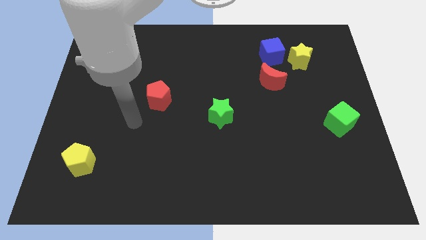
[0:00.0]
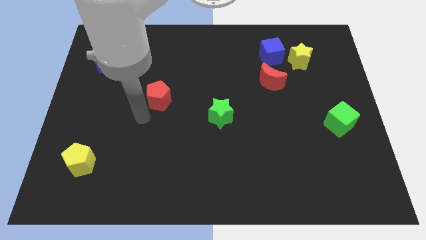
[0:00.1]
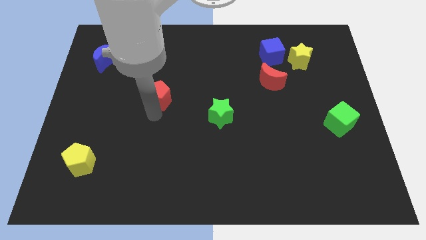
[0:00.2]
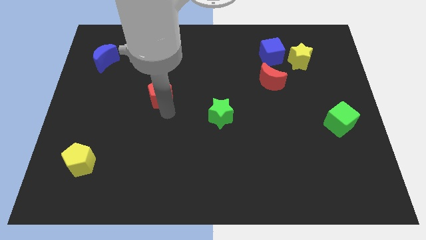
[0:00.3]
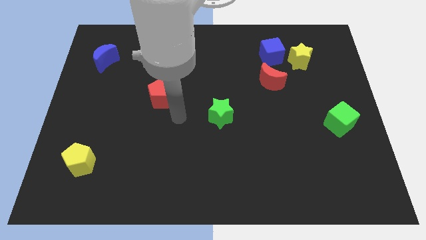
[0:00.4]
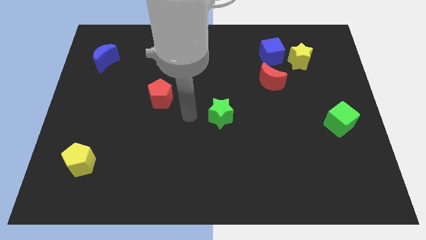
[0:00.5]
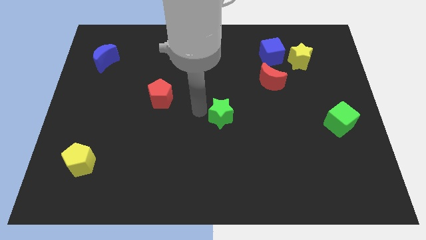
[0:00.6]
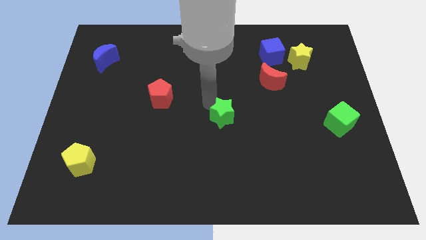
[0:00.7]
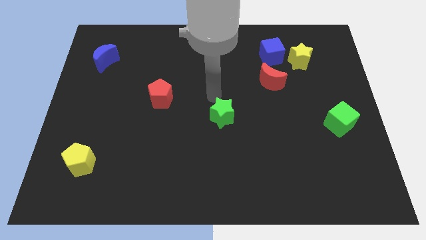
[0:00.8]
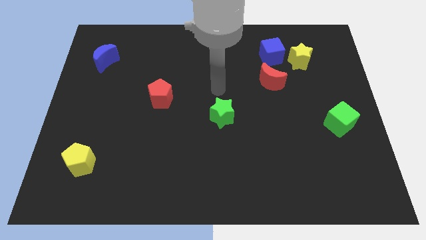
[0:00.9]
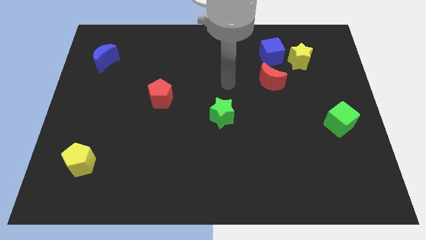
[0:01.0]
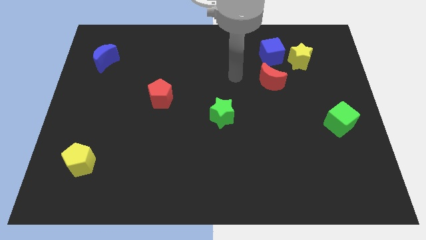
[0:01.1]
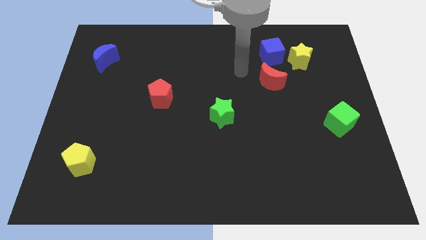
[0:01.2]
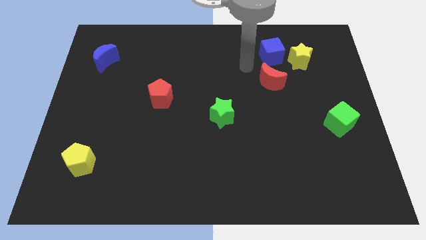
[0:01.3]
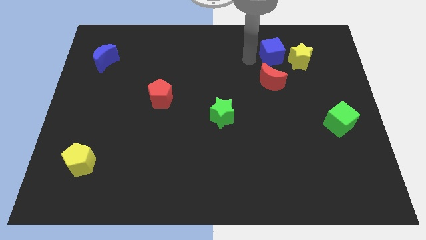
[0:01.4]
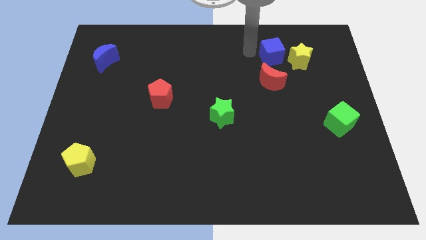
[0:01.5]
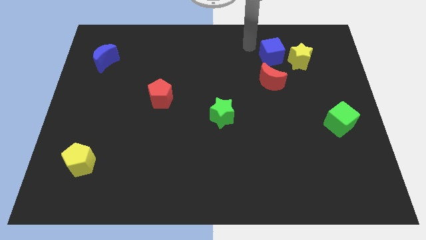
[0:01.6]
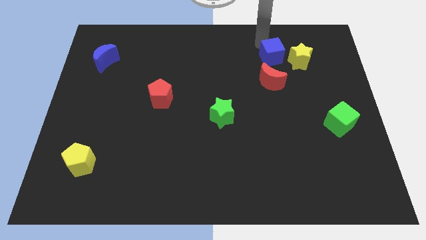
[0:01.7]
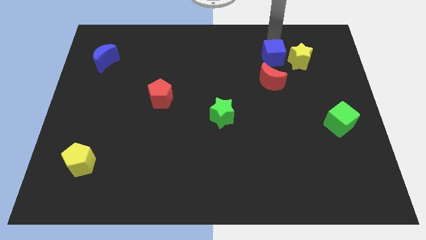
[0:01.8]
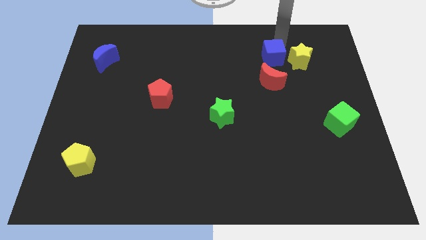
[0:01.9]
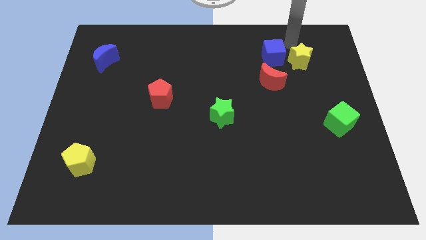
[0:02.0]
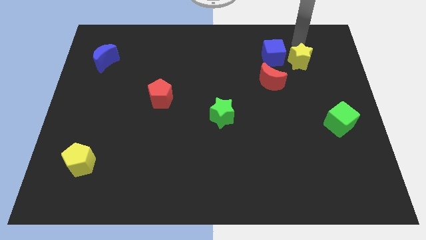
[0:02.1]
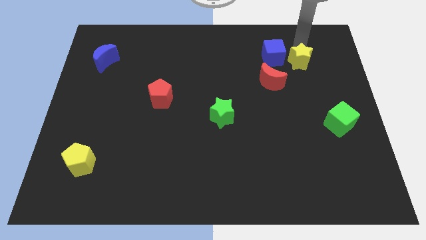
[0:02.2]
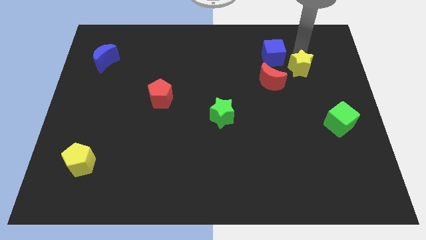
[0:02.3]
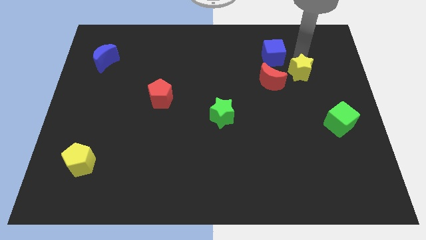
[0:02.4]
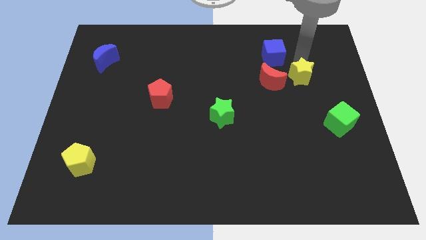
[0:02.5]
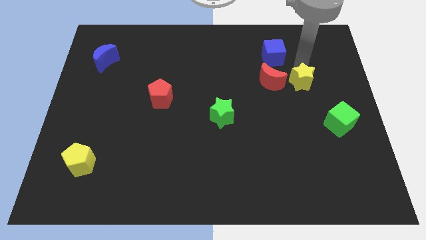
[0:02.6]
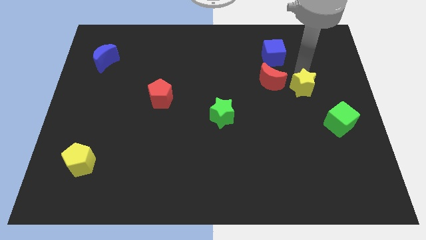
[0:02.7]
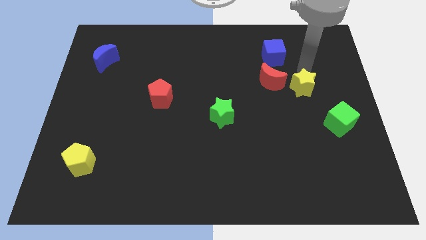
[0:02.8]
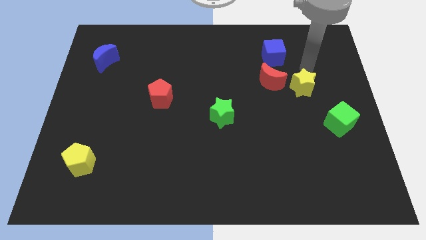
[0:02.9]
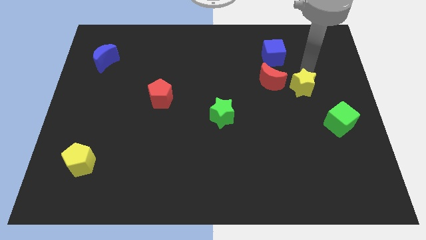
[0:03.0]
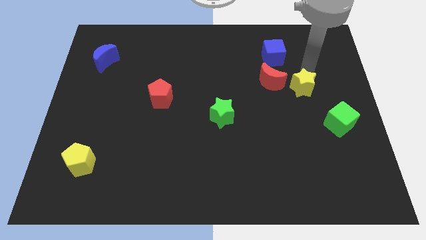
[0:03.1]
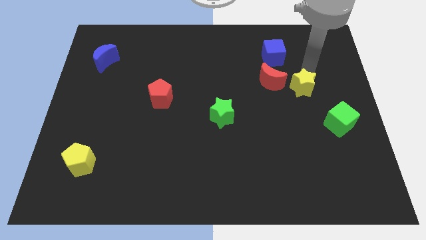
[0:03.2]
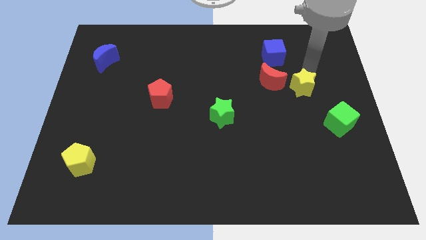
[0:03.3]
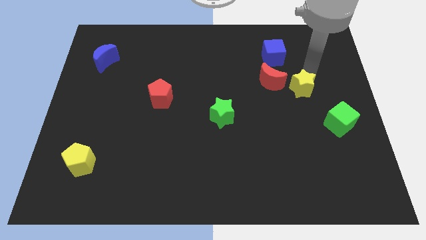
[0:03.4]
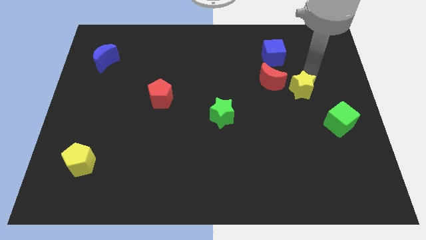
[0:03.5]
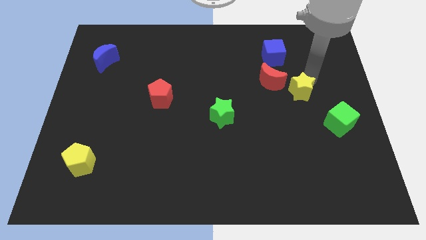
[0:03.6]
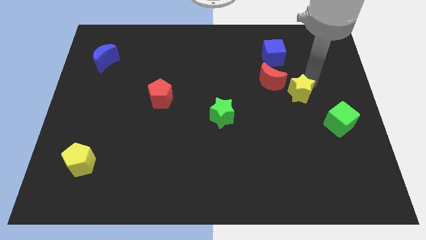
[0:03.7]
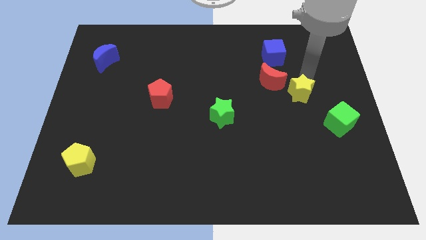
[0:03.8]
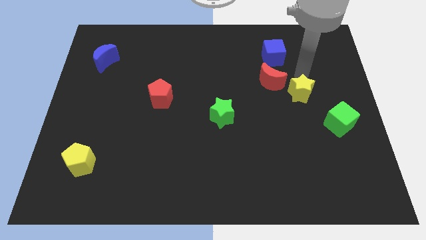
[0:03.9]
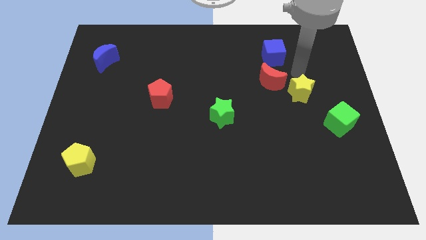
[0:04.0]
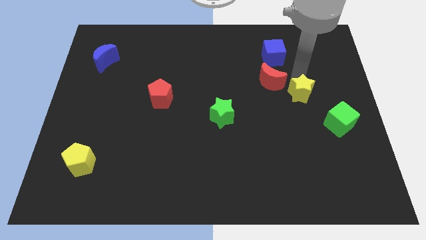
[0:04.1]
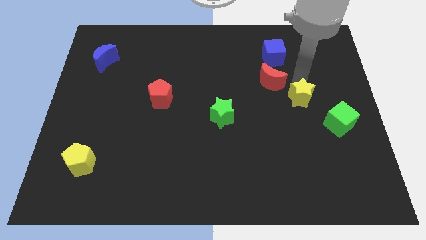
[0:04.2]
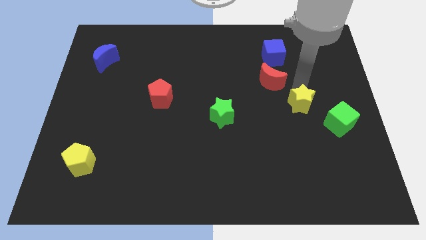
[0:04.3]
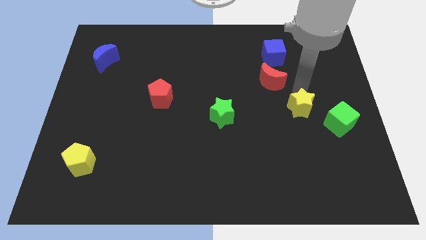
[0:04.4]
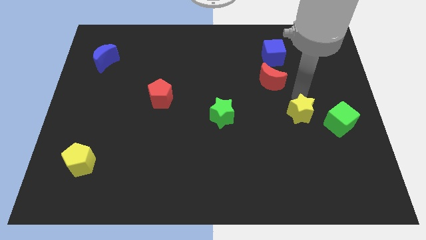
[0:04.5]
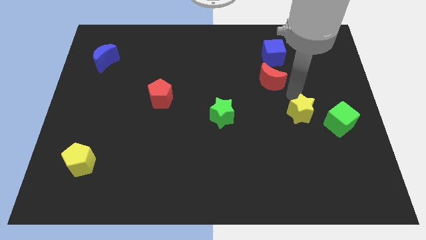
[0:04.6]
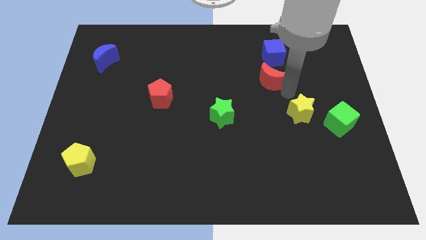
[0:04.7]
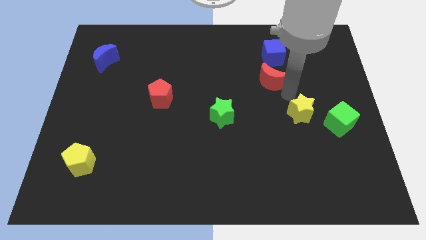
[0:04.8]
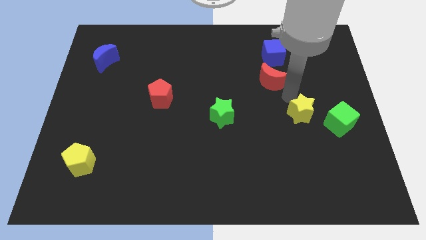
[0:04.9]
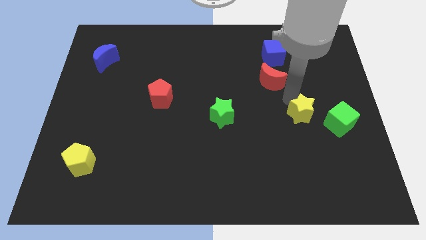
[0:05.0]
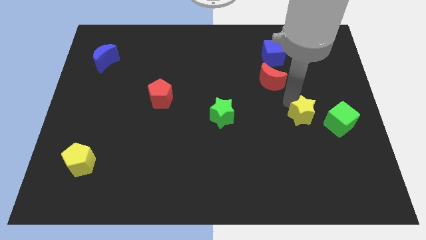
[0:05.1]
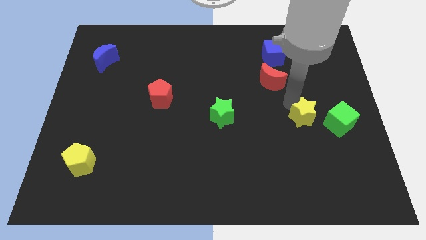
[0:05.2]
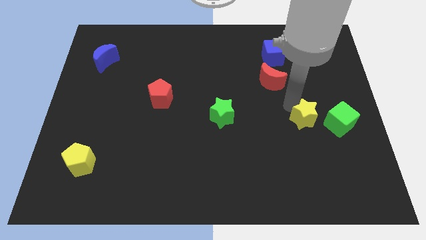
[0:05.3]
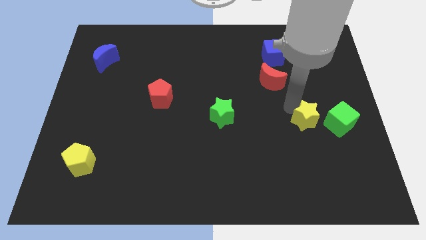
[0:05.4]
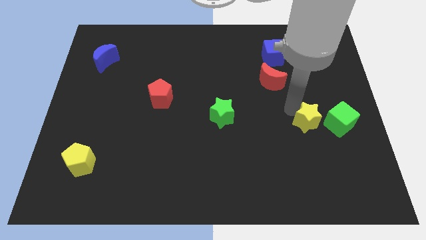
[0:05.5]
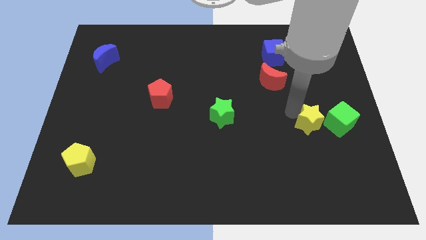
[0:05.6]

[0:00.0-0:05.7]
move the yellow star down

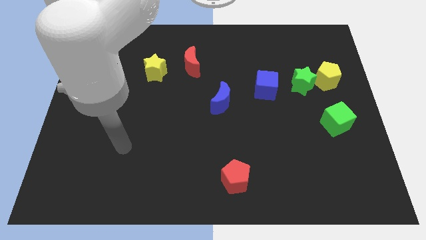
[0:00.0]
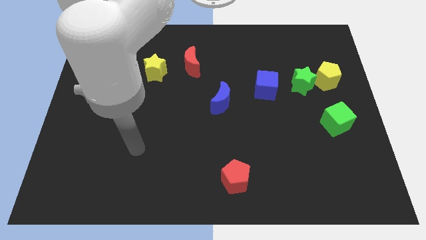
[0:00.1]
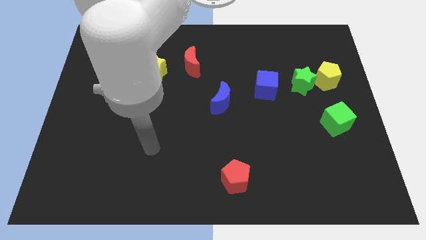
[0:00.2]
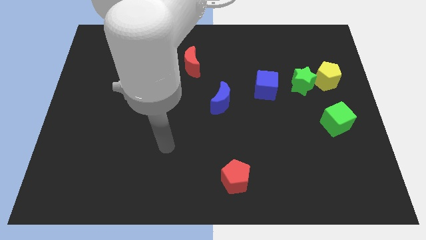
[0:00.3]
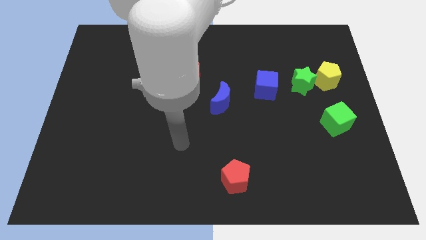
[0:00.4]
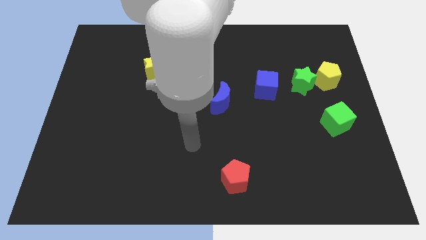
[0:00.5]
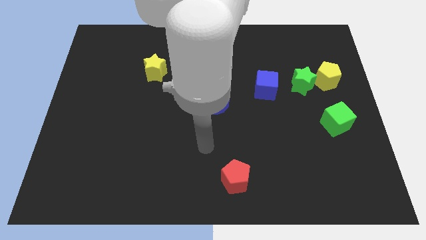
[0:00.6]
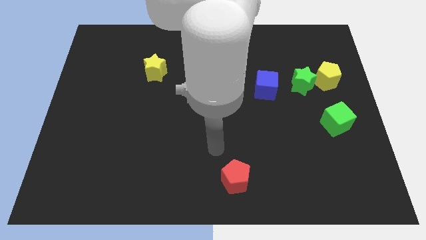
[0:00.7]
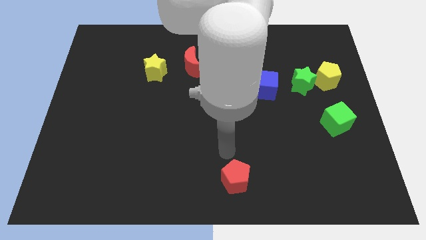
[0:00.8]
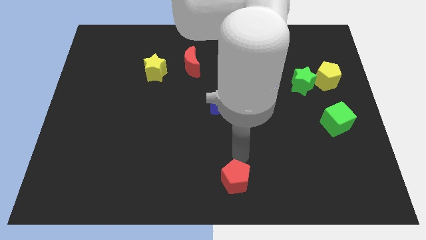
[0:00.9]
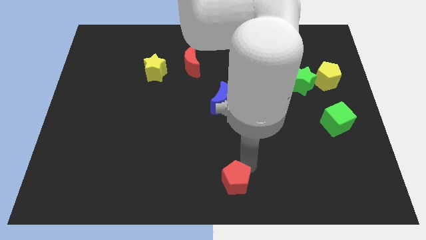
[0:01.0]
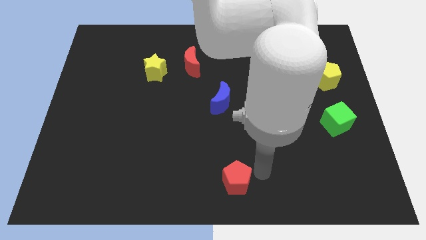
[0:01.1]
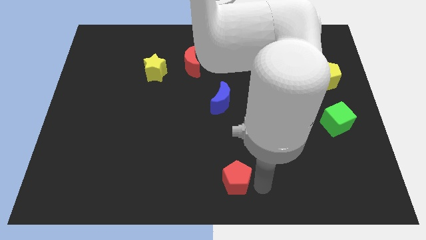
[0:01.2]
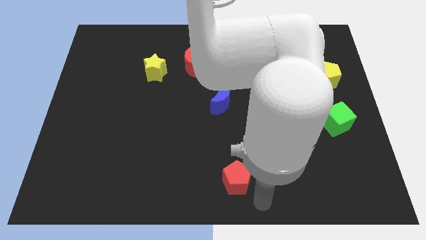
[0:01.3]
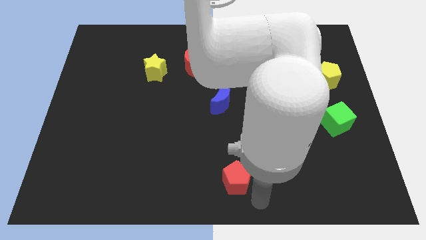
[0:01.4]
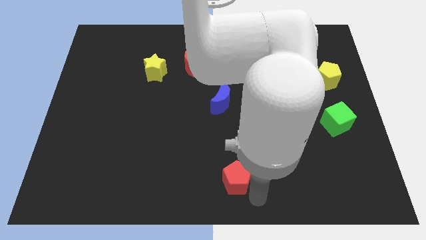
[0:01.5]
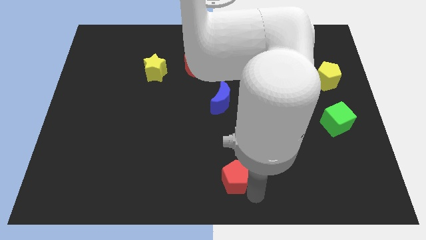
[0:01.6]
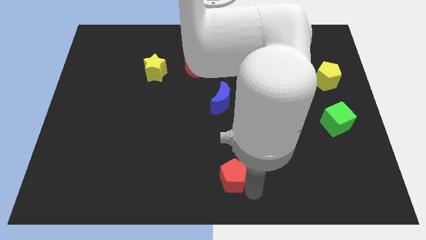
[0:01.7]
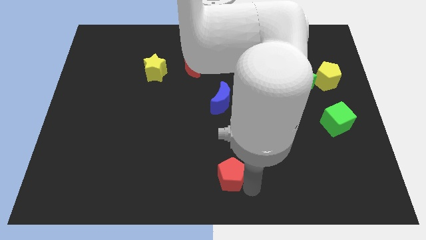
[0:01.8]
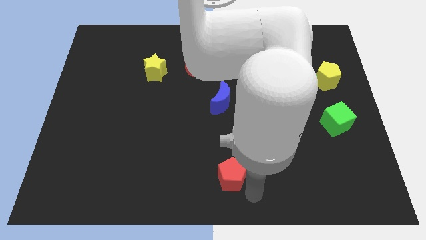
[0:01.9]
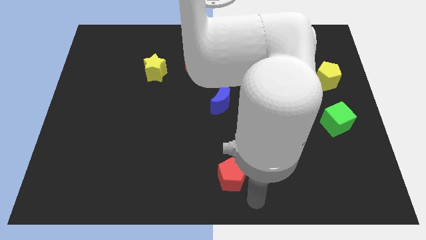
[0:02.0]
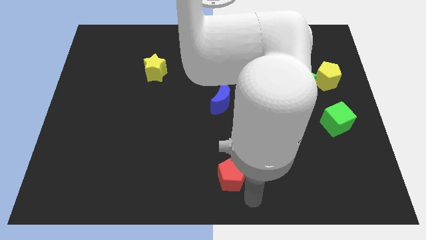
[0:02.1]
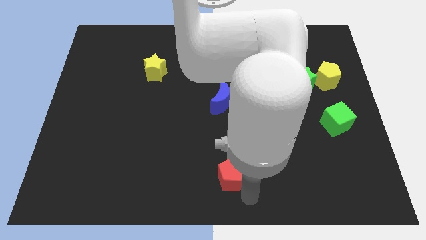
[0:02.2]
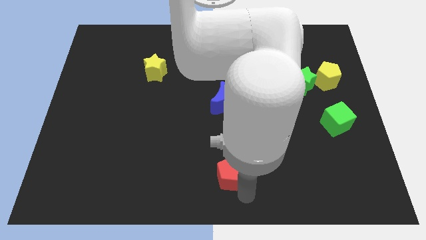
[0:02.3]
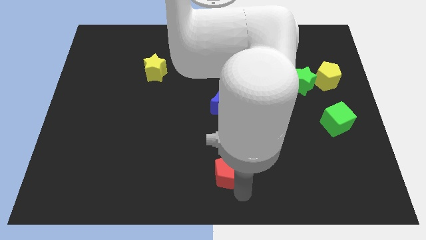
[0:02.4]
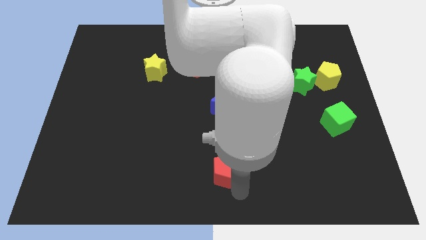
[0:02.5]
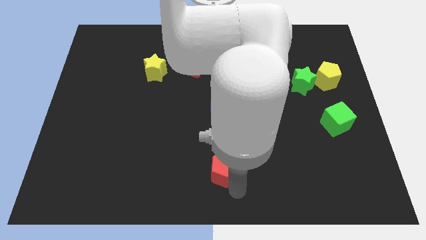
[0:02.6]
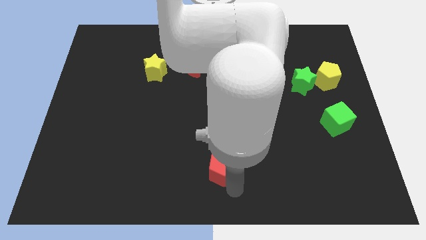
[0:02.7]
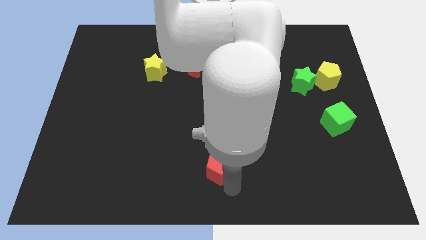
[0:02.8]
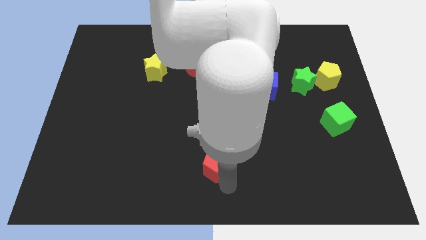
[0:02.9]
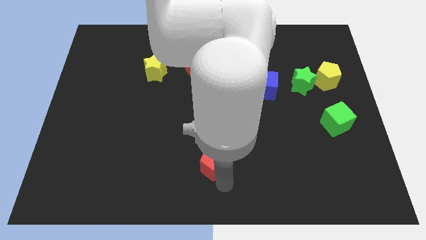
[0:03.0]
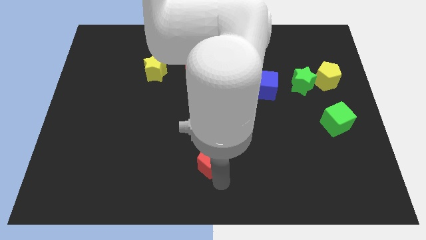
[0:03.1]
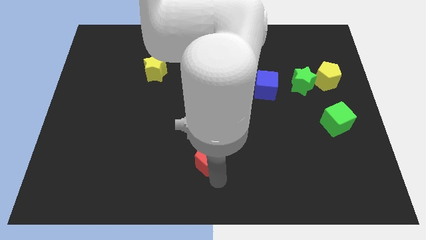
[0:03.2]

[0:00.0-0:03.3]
move the red pentagon a little upwards and to the left
